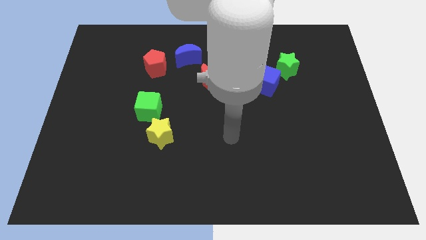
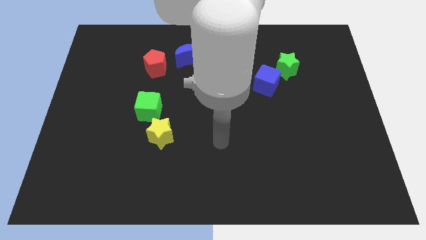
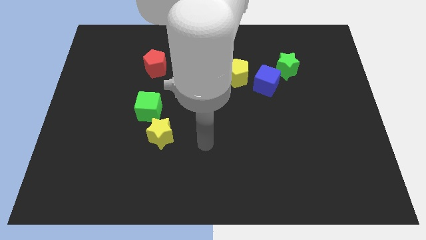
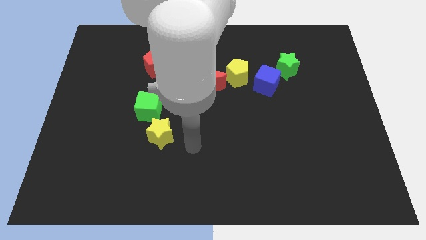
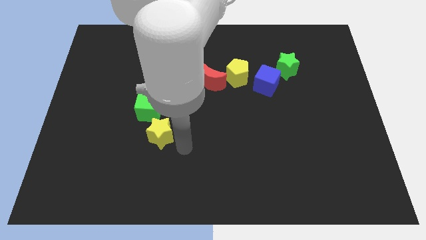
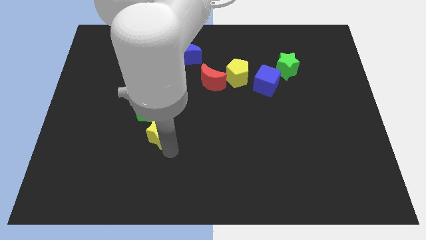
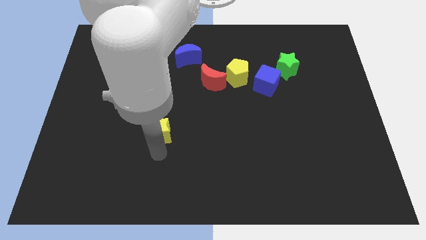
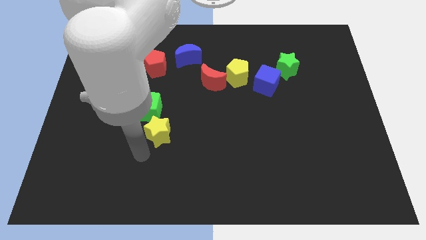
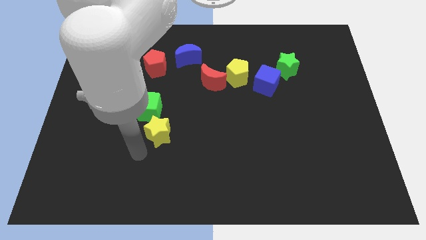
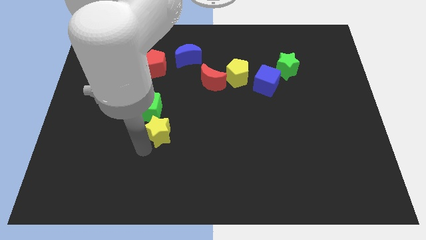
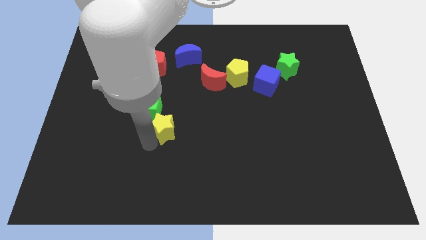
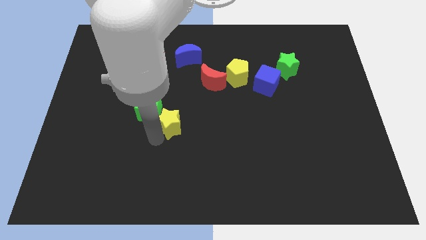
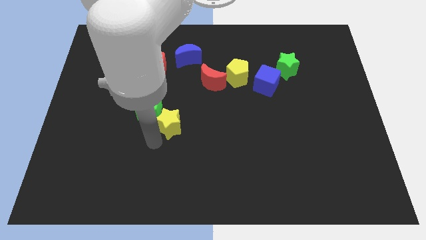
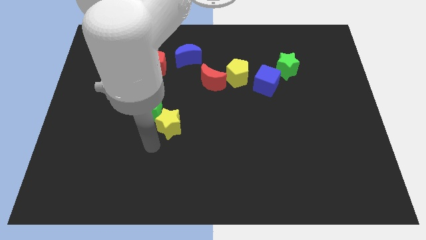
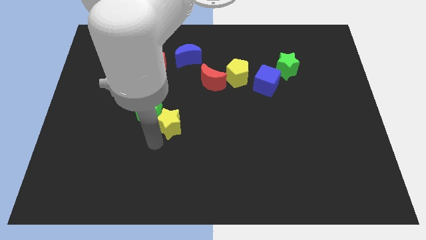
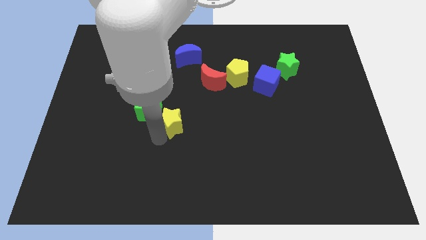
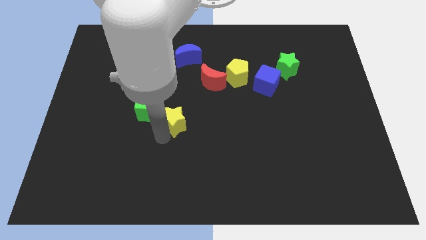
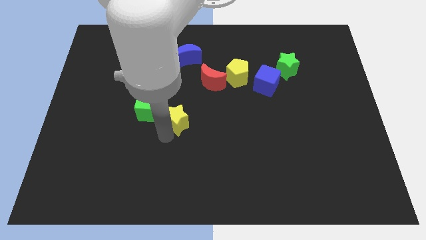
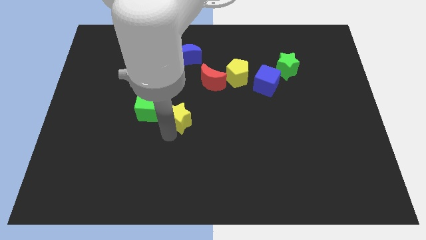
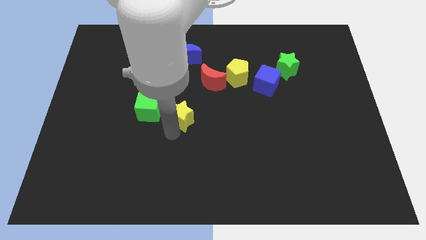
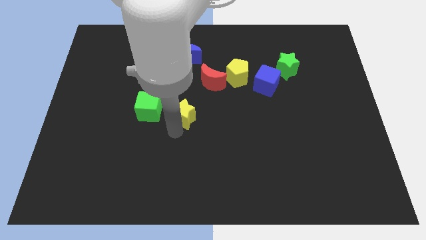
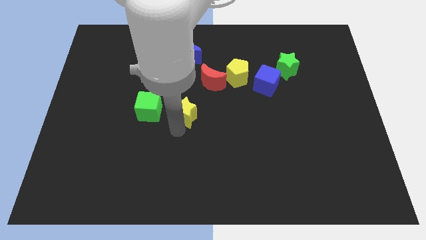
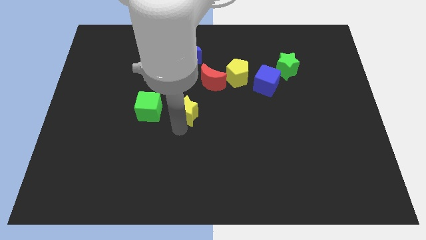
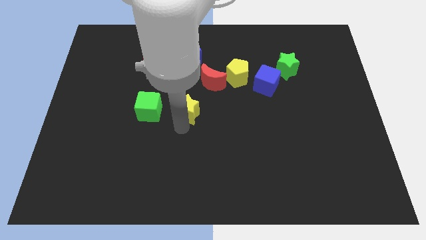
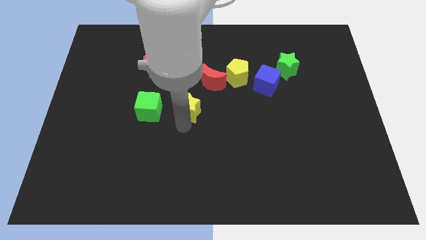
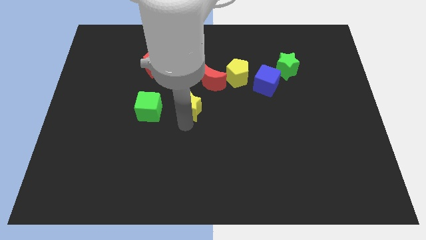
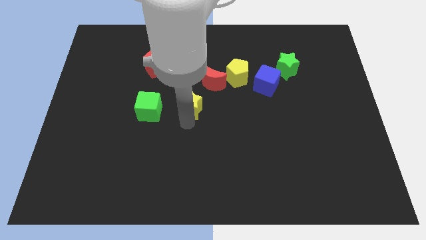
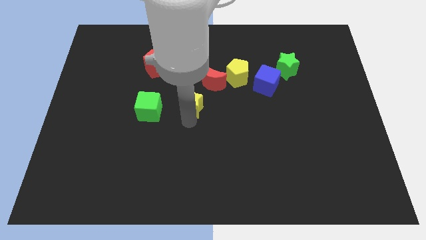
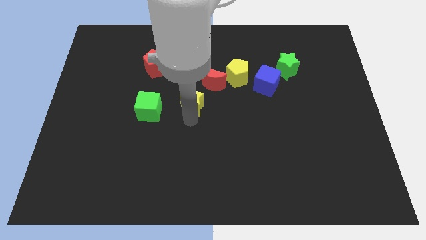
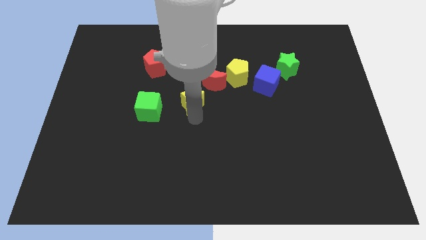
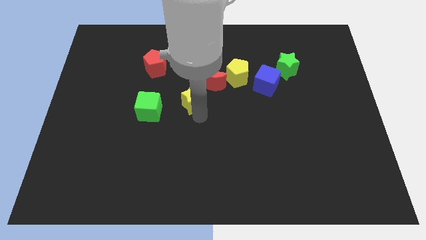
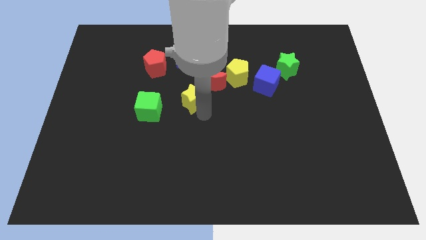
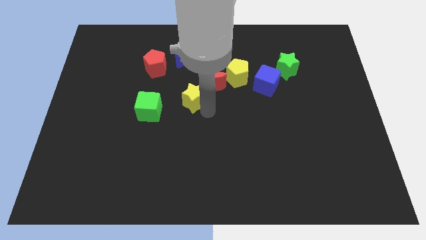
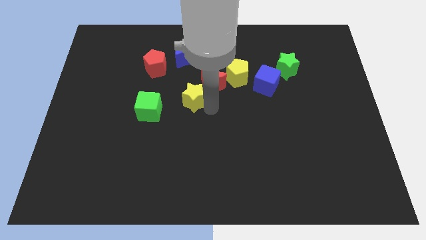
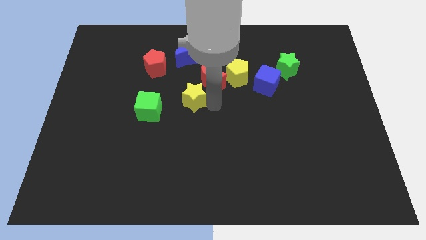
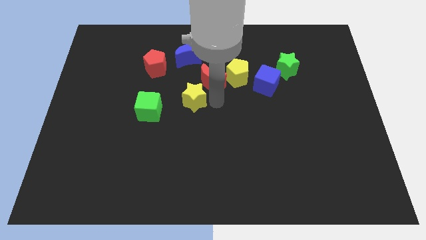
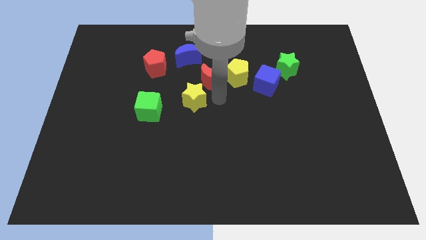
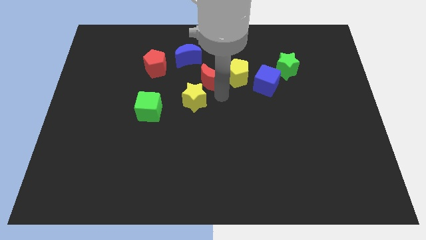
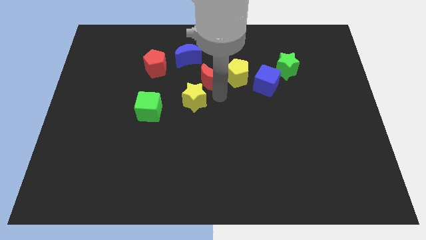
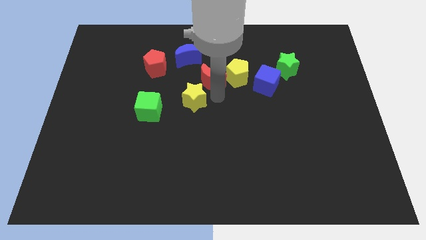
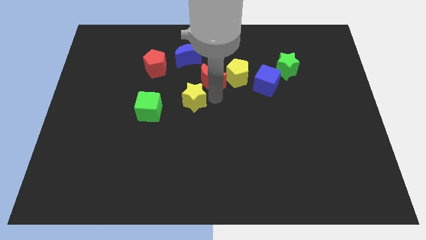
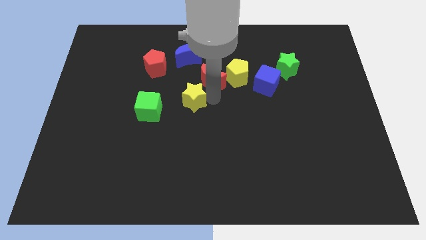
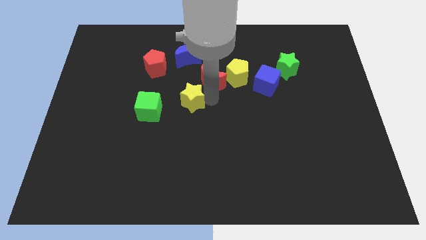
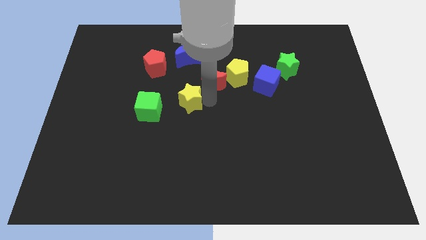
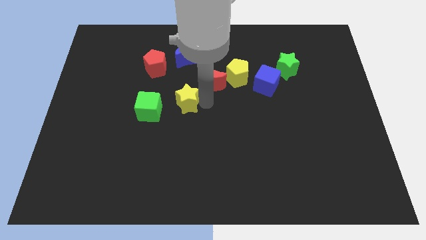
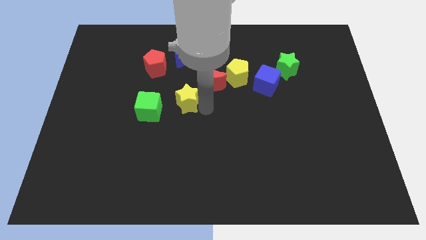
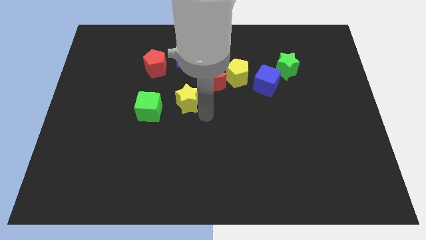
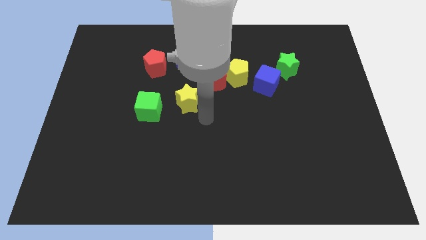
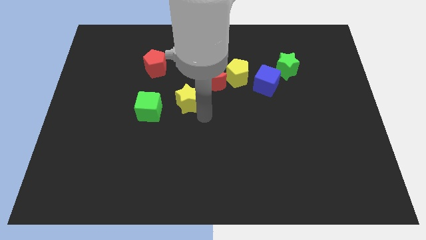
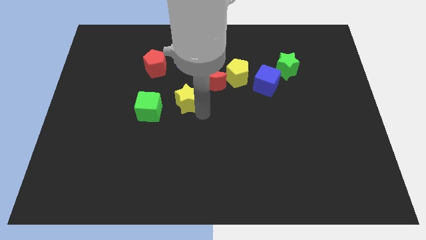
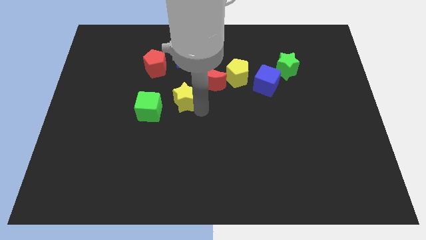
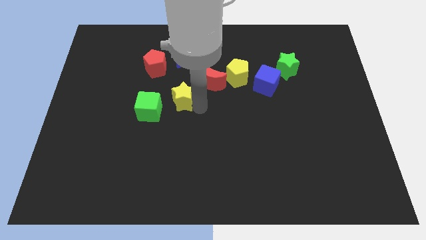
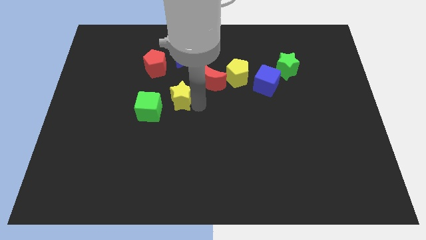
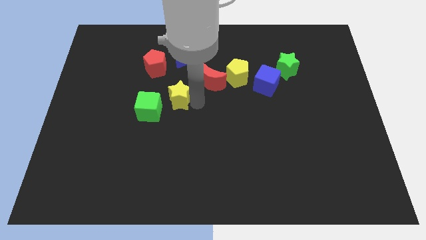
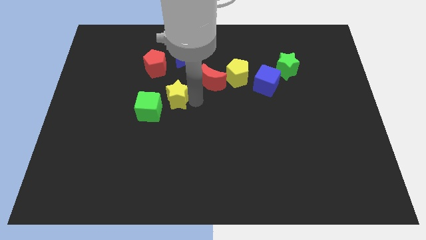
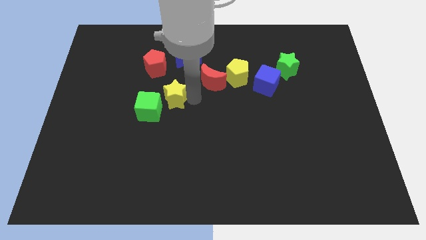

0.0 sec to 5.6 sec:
move the yellow star to the left of the red moon
